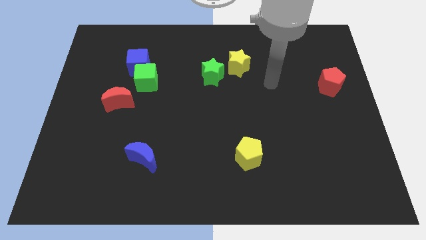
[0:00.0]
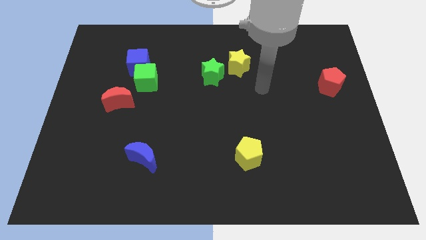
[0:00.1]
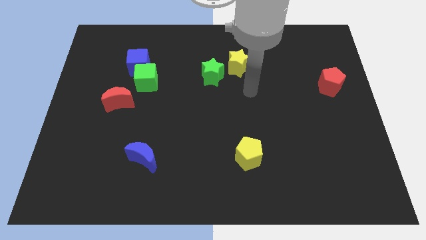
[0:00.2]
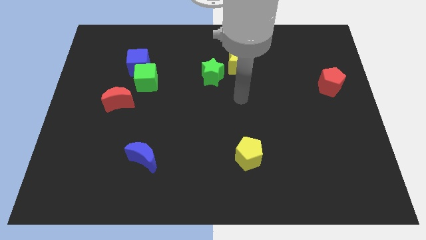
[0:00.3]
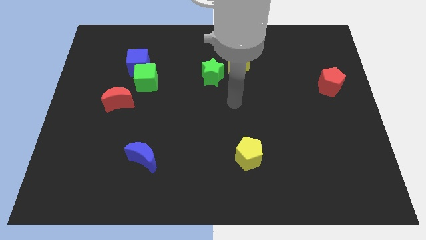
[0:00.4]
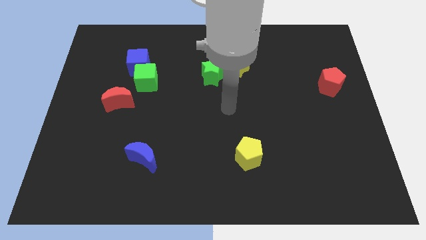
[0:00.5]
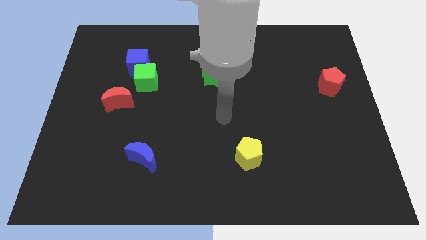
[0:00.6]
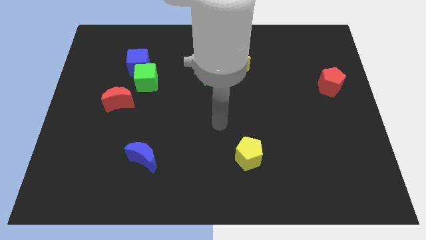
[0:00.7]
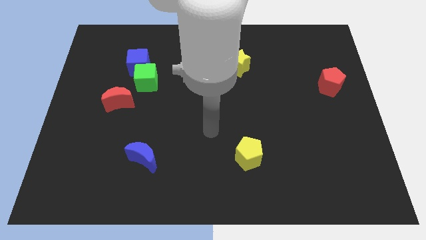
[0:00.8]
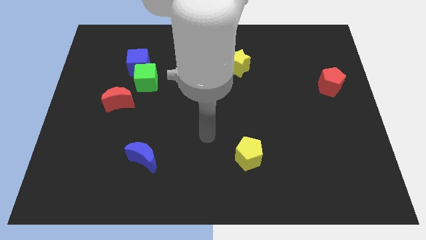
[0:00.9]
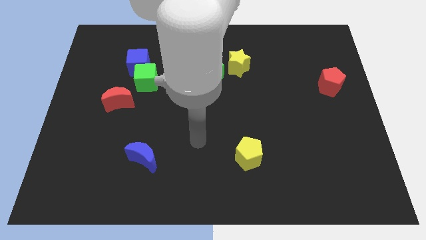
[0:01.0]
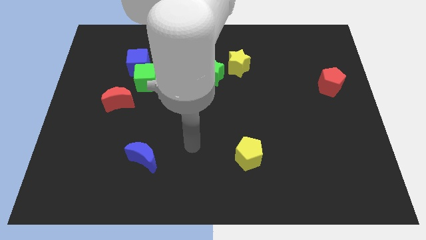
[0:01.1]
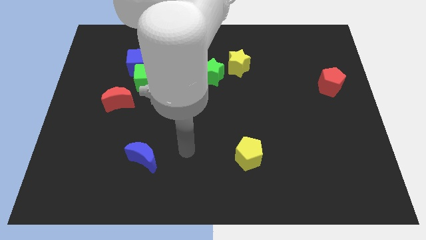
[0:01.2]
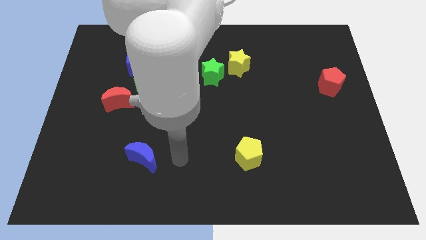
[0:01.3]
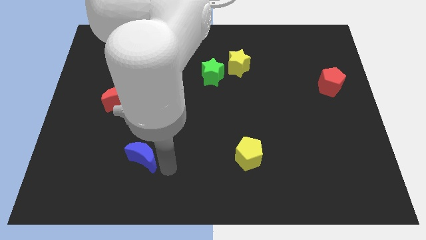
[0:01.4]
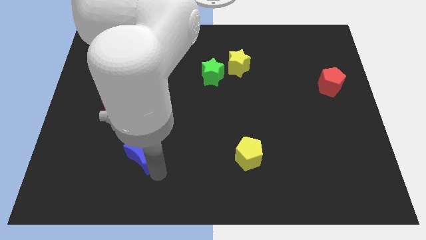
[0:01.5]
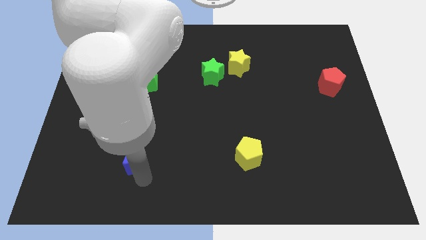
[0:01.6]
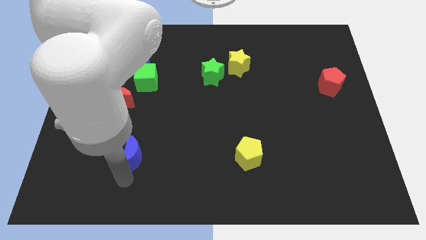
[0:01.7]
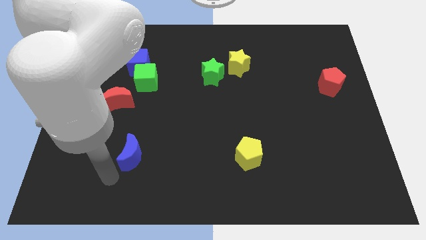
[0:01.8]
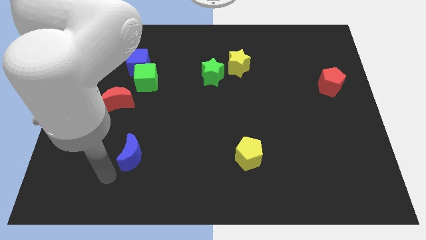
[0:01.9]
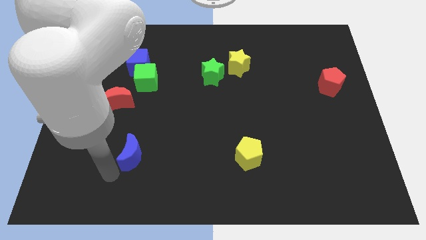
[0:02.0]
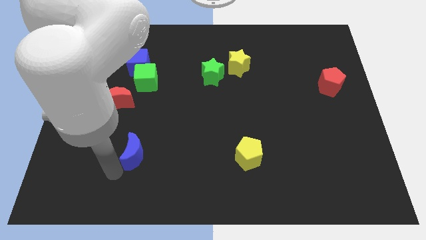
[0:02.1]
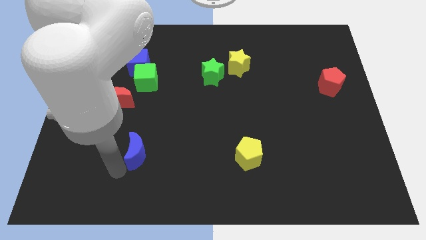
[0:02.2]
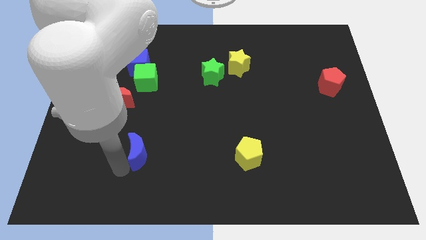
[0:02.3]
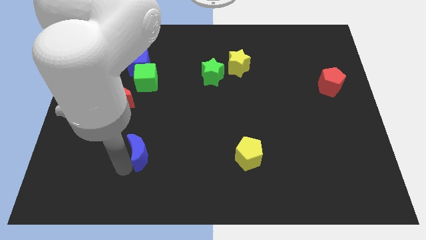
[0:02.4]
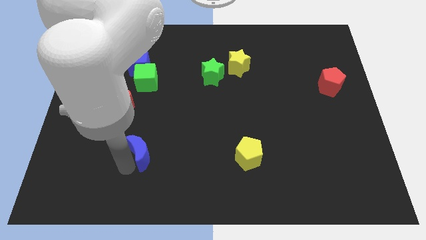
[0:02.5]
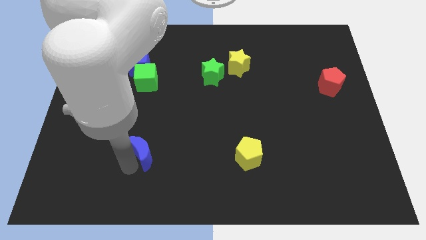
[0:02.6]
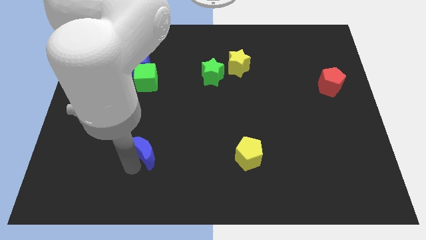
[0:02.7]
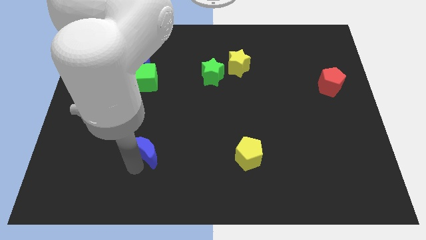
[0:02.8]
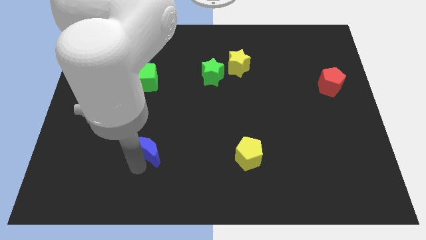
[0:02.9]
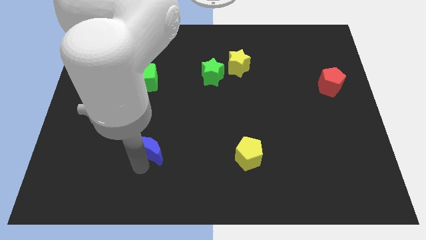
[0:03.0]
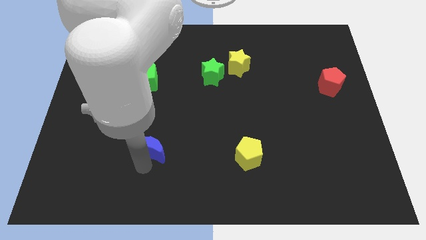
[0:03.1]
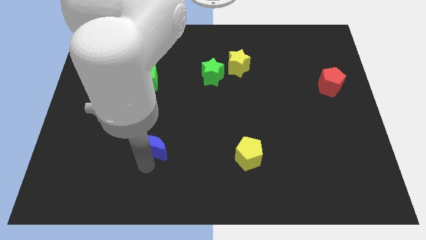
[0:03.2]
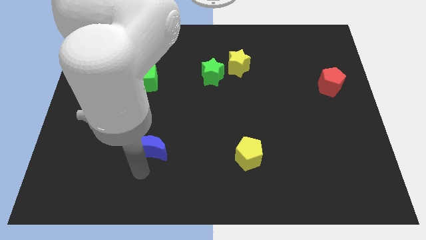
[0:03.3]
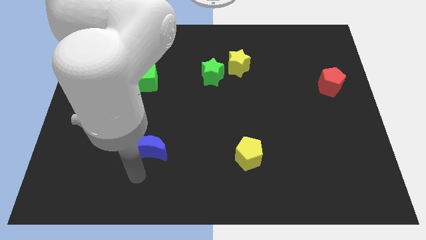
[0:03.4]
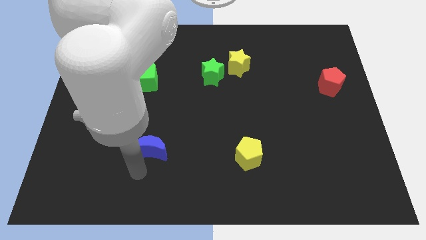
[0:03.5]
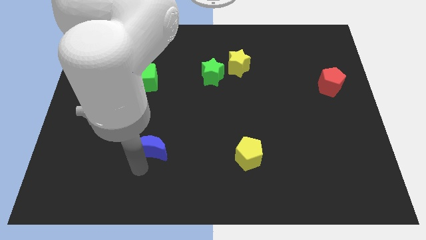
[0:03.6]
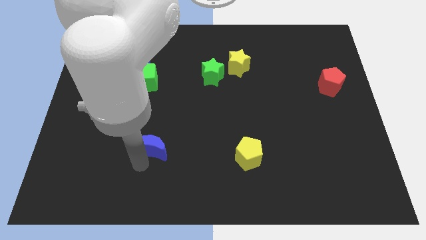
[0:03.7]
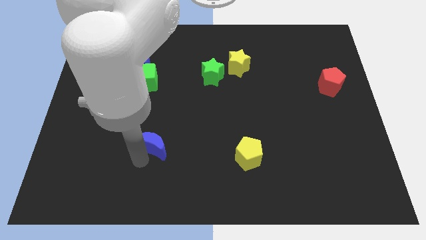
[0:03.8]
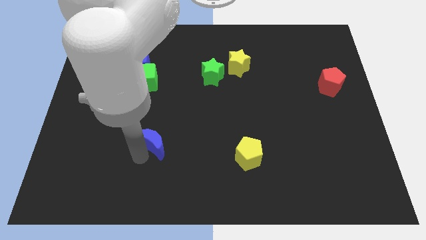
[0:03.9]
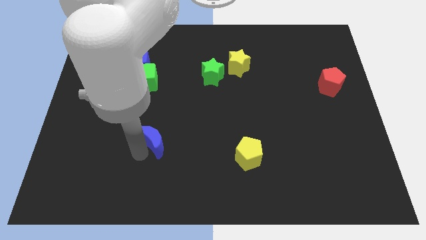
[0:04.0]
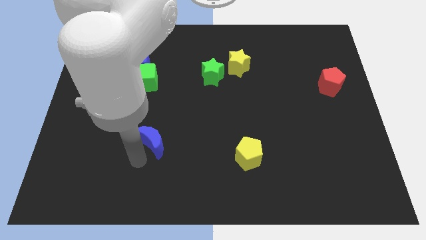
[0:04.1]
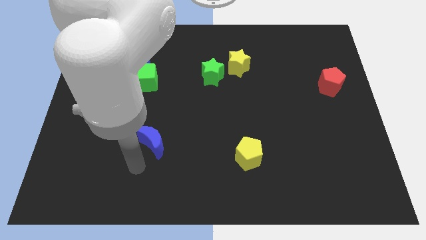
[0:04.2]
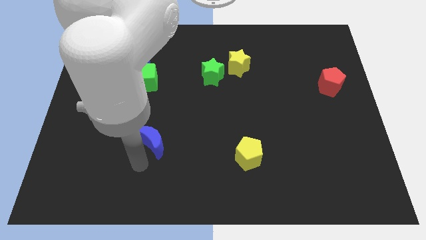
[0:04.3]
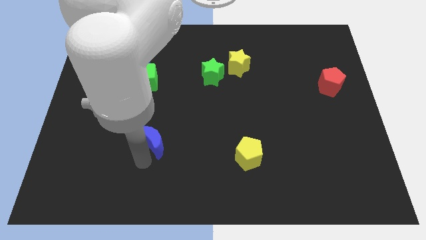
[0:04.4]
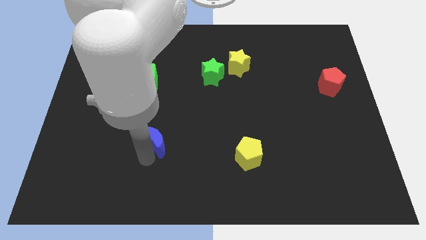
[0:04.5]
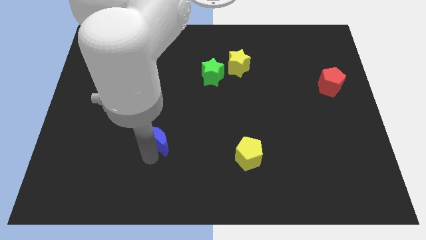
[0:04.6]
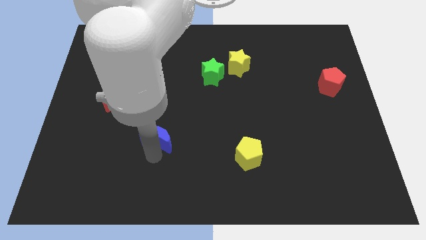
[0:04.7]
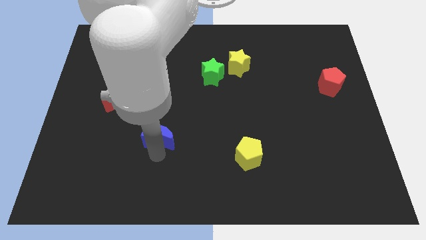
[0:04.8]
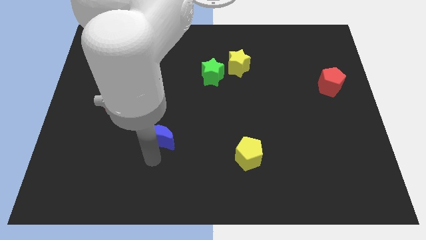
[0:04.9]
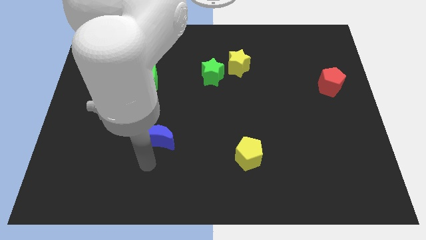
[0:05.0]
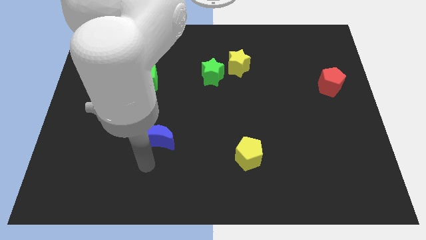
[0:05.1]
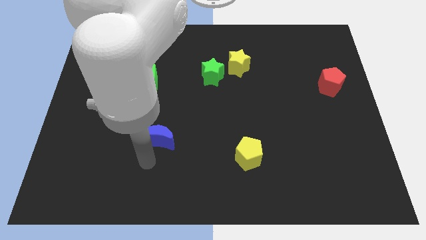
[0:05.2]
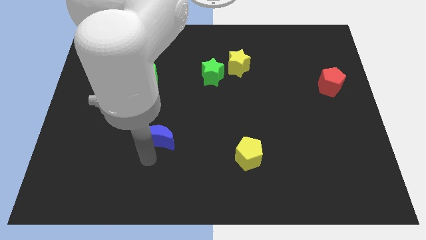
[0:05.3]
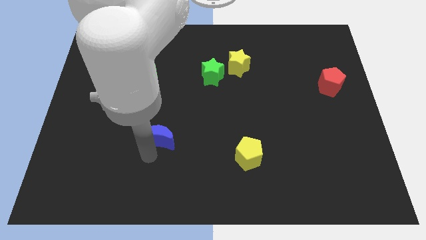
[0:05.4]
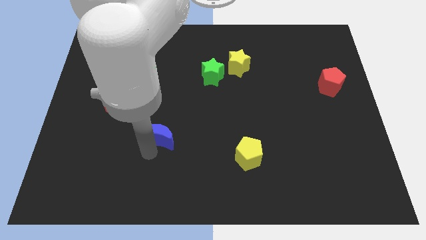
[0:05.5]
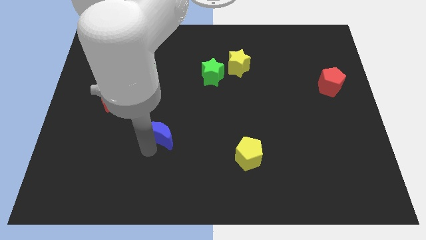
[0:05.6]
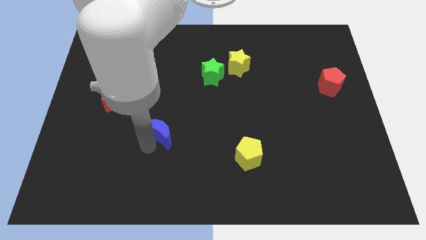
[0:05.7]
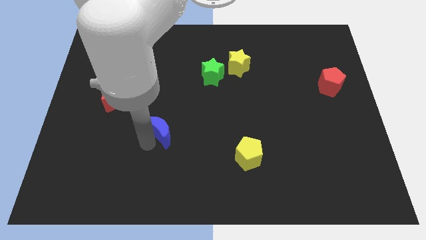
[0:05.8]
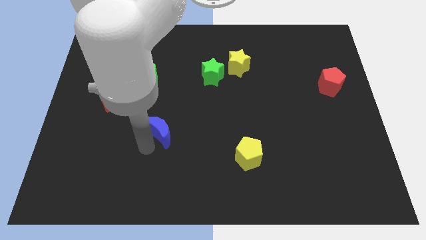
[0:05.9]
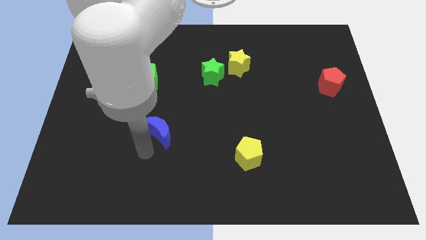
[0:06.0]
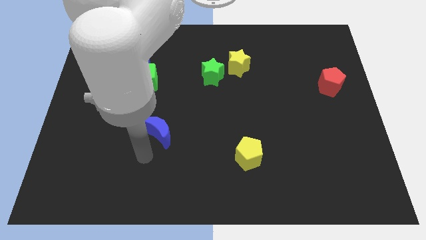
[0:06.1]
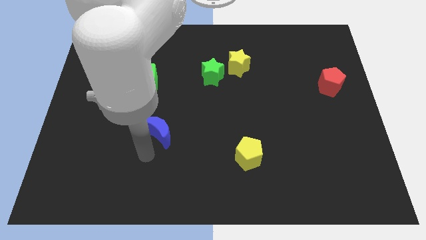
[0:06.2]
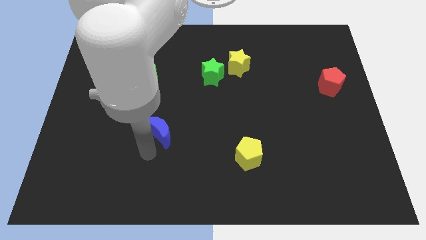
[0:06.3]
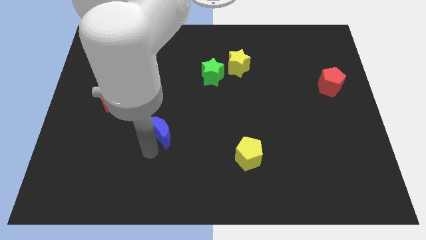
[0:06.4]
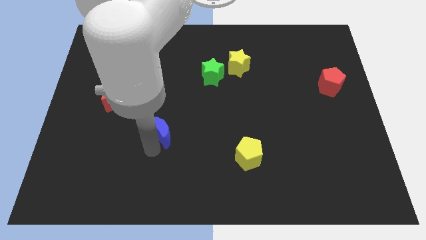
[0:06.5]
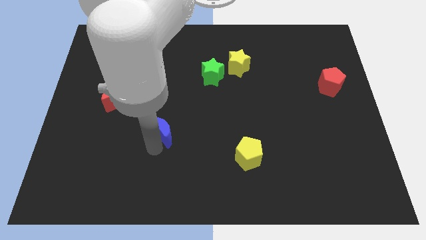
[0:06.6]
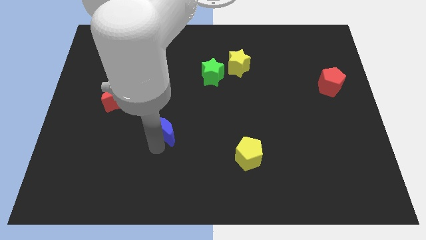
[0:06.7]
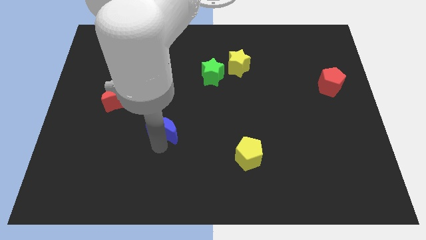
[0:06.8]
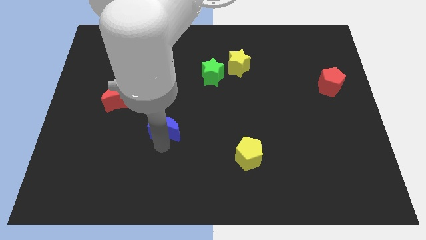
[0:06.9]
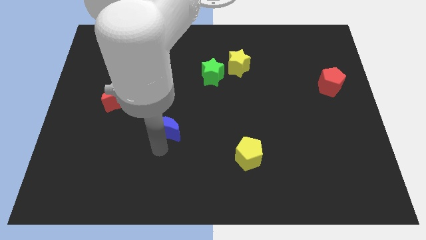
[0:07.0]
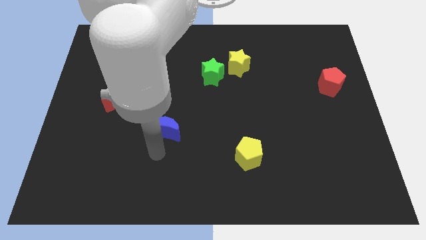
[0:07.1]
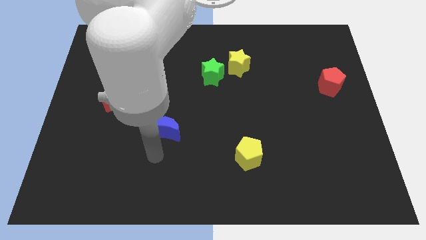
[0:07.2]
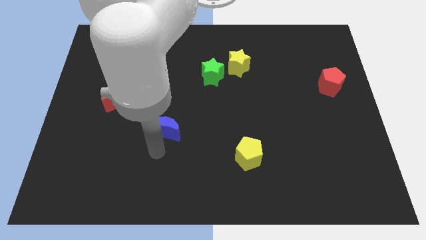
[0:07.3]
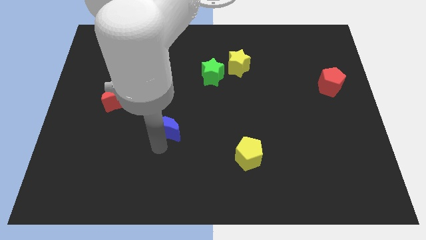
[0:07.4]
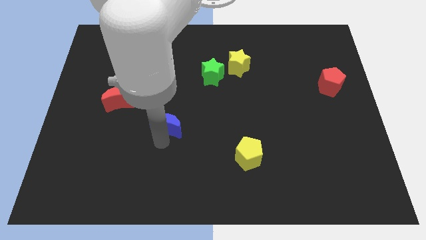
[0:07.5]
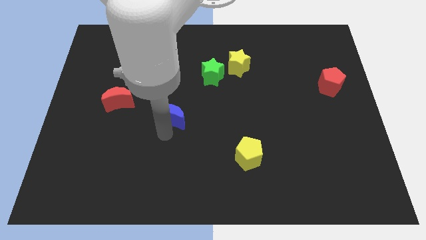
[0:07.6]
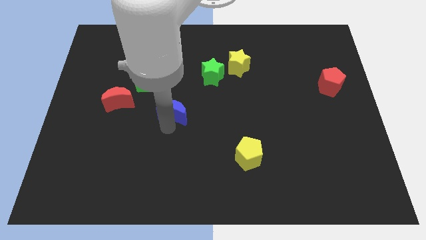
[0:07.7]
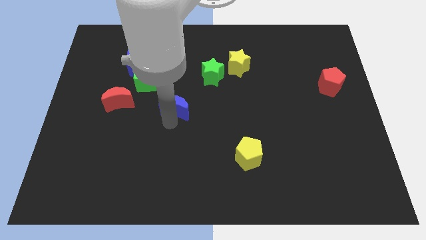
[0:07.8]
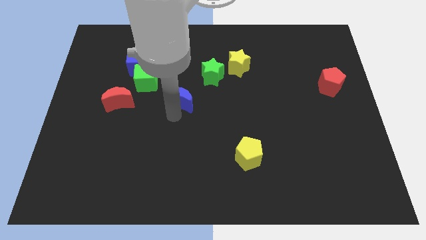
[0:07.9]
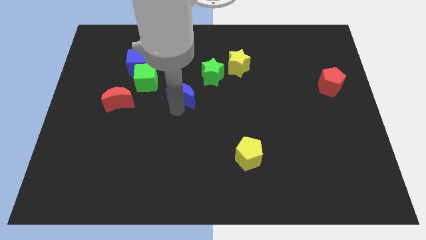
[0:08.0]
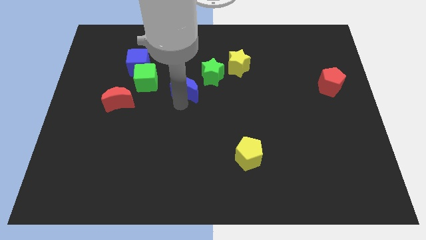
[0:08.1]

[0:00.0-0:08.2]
put the blue moon just right of the green cube
